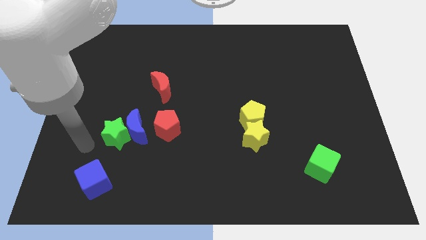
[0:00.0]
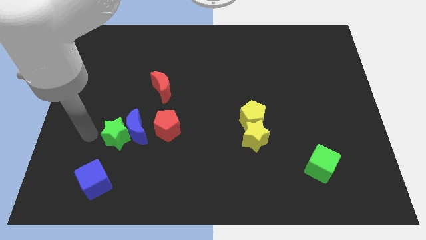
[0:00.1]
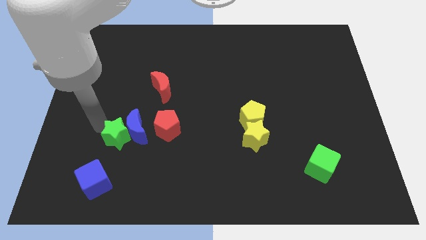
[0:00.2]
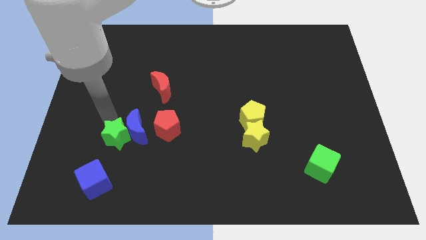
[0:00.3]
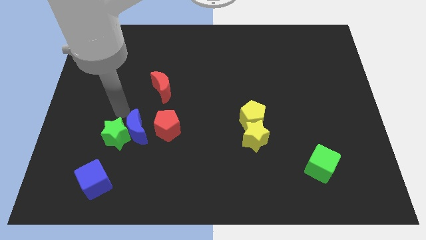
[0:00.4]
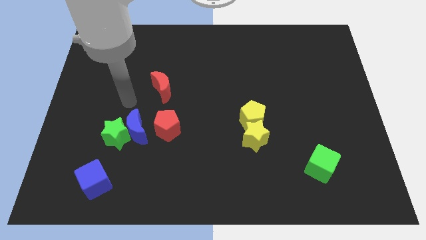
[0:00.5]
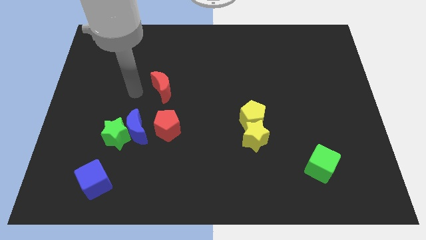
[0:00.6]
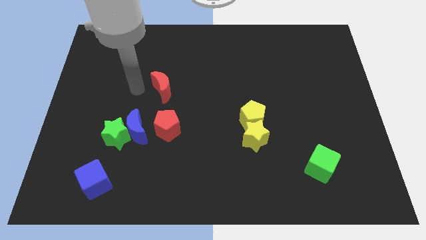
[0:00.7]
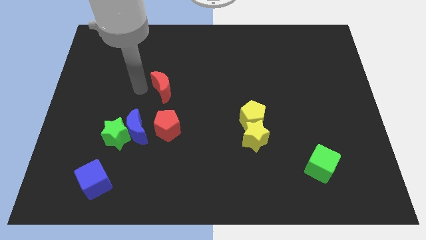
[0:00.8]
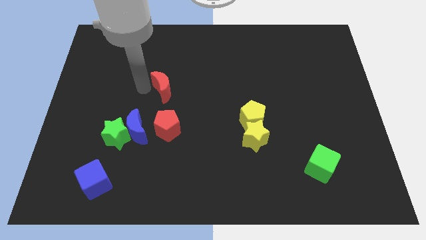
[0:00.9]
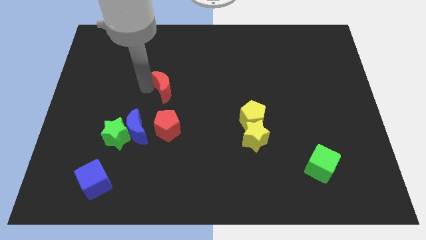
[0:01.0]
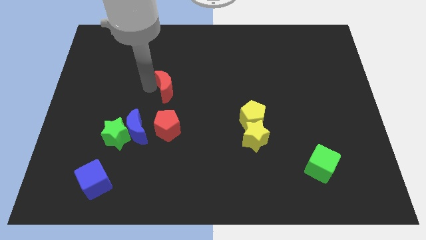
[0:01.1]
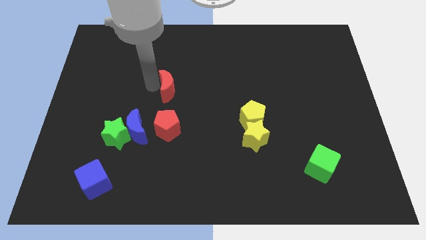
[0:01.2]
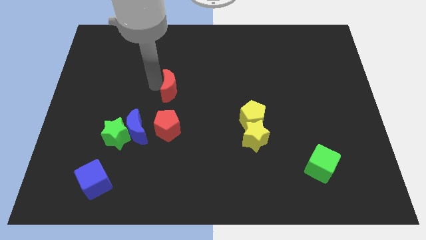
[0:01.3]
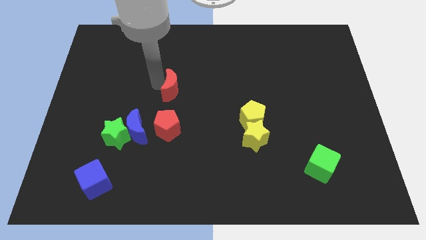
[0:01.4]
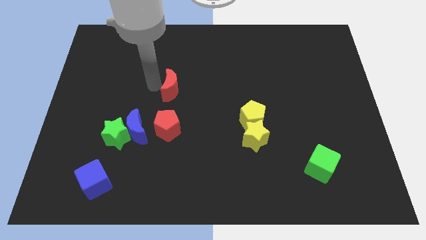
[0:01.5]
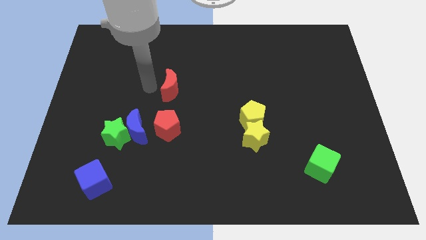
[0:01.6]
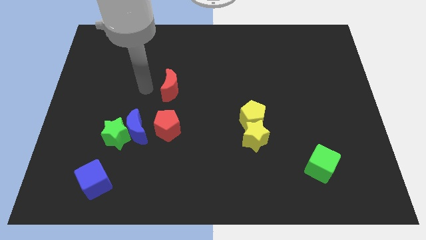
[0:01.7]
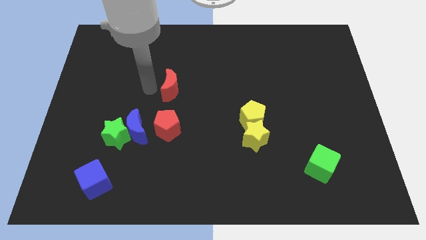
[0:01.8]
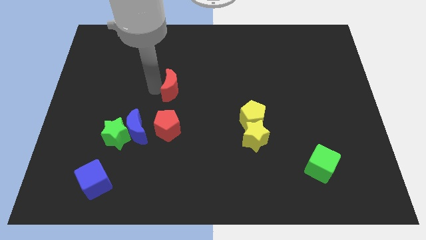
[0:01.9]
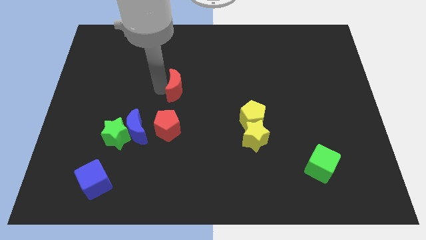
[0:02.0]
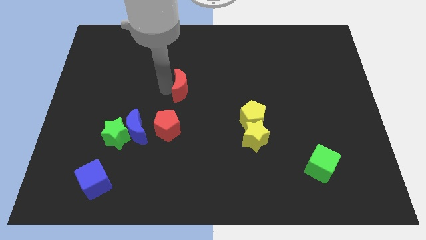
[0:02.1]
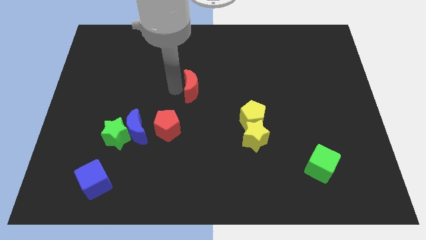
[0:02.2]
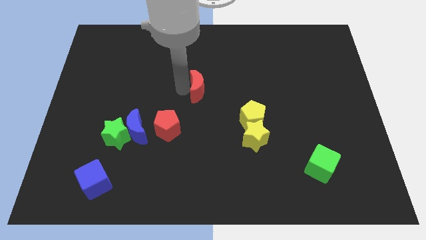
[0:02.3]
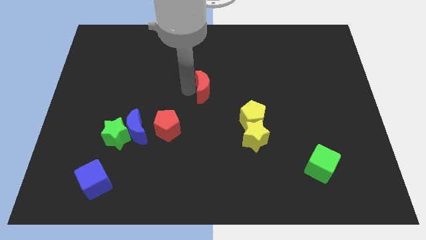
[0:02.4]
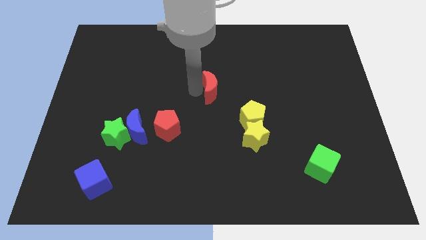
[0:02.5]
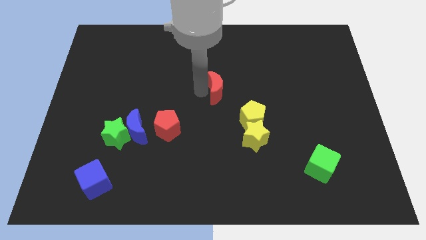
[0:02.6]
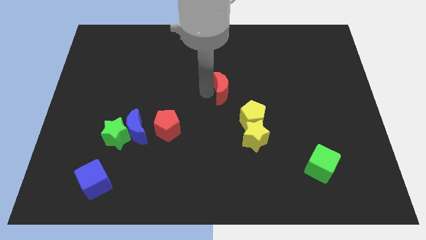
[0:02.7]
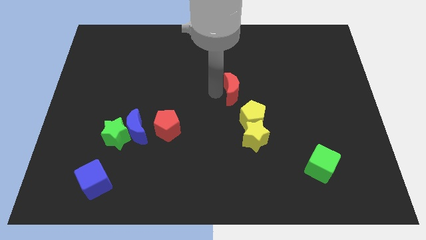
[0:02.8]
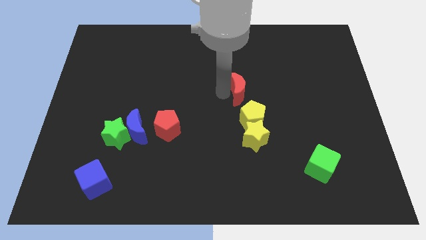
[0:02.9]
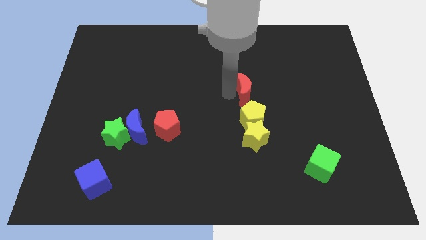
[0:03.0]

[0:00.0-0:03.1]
move the red moon right

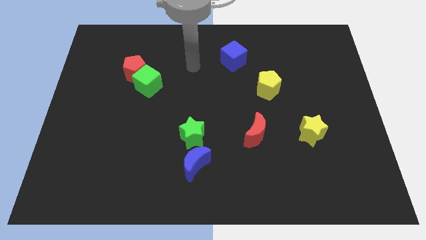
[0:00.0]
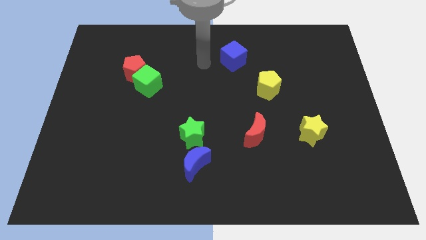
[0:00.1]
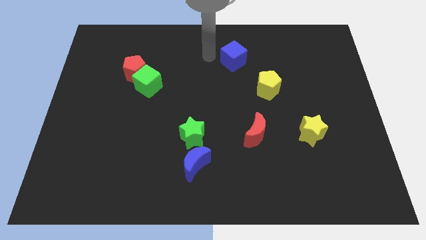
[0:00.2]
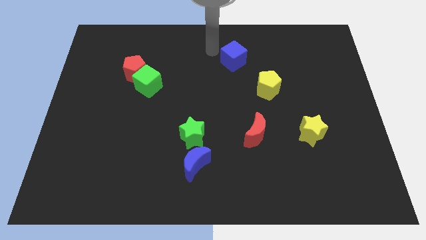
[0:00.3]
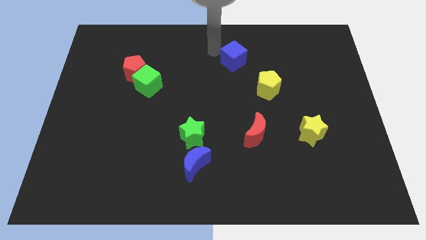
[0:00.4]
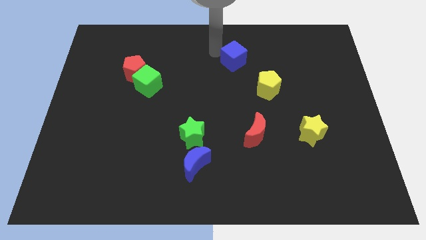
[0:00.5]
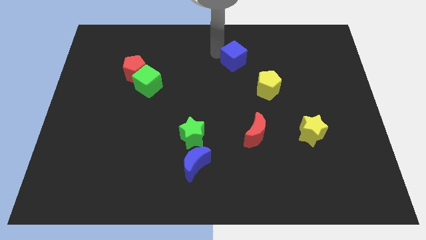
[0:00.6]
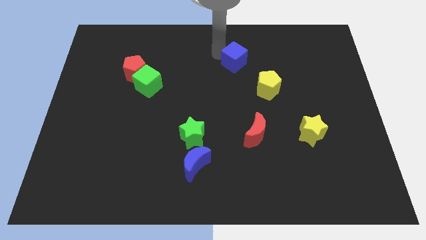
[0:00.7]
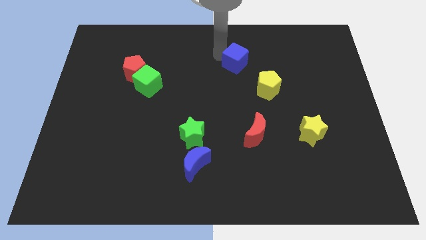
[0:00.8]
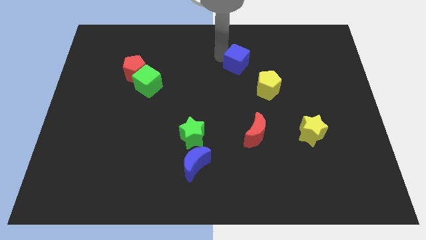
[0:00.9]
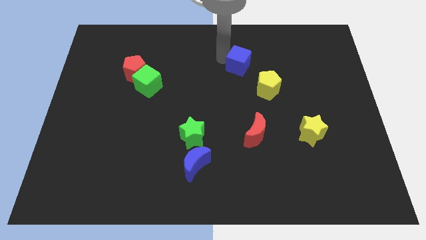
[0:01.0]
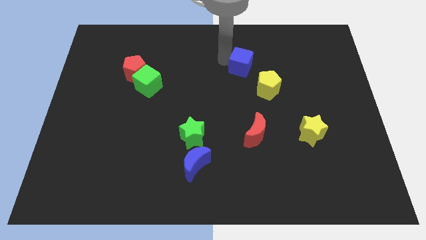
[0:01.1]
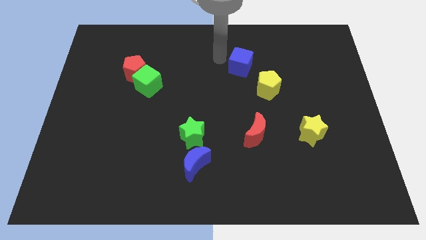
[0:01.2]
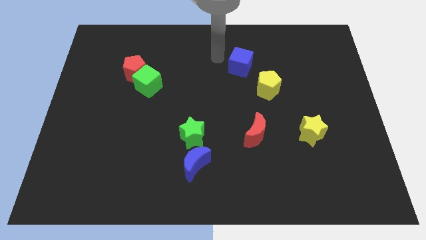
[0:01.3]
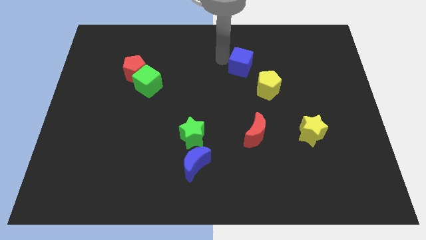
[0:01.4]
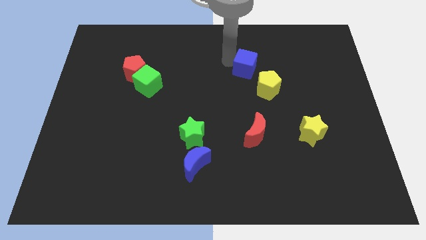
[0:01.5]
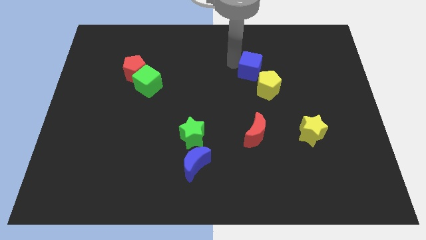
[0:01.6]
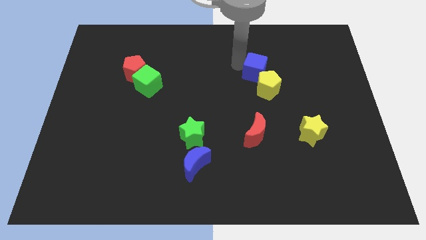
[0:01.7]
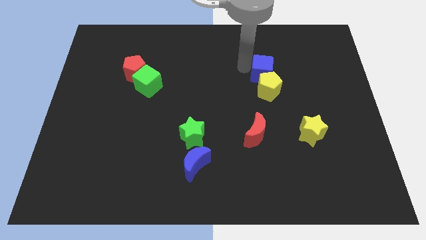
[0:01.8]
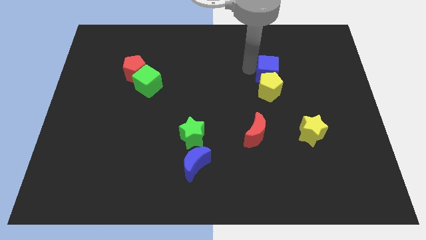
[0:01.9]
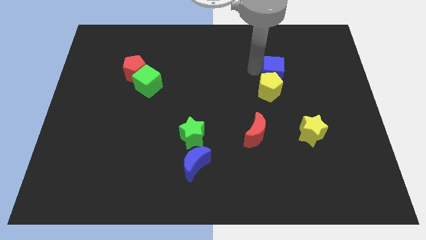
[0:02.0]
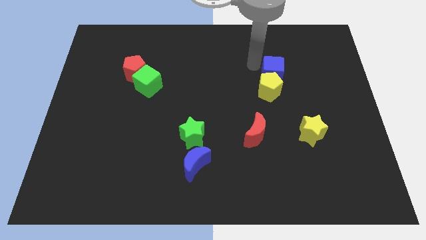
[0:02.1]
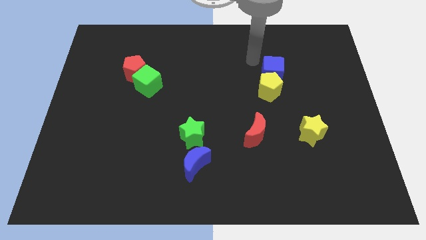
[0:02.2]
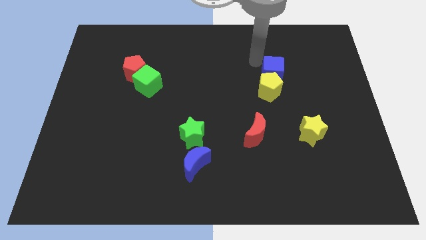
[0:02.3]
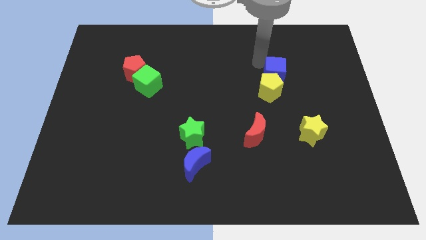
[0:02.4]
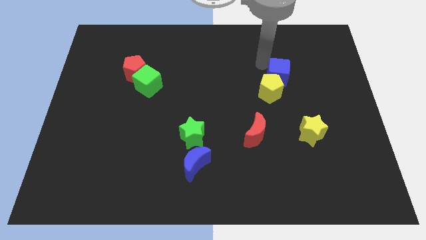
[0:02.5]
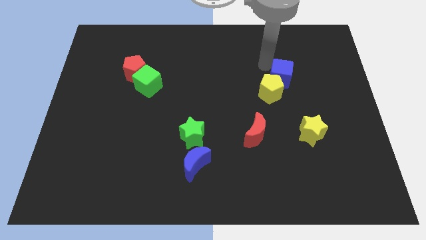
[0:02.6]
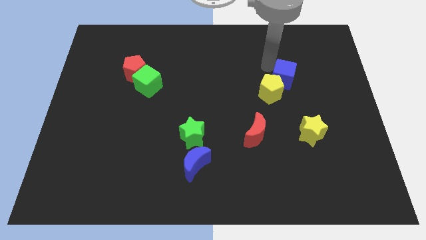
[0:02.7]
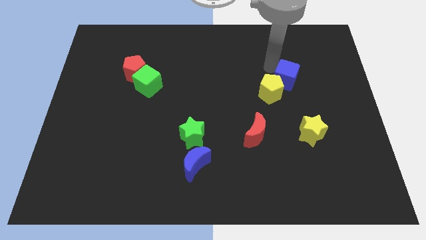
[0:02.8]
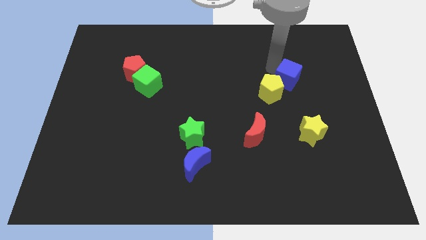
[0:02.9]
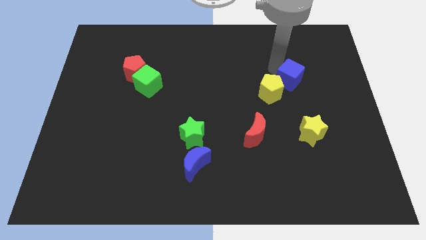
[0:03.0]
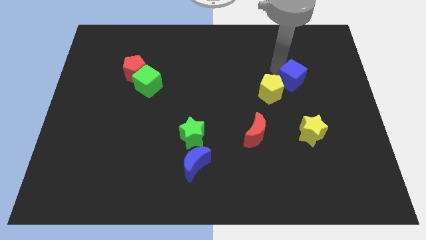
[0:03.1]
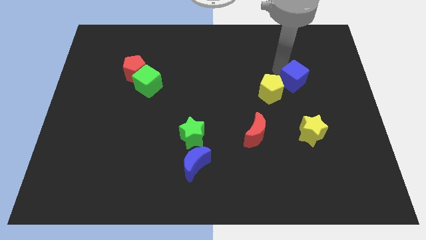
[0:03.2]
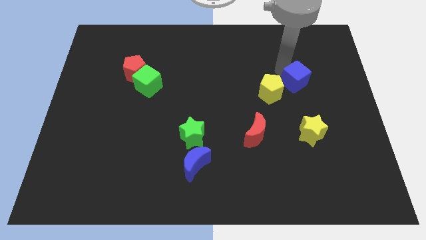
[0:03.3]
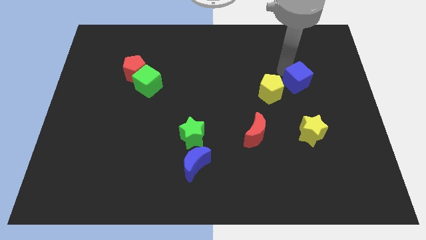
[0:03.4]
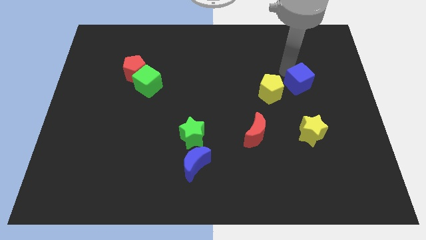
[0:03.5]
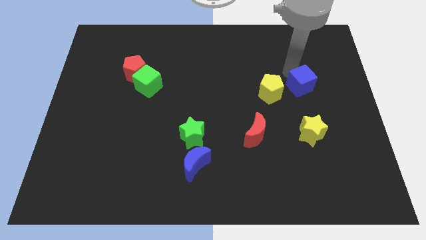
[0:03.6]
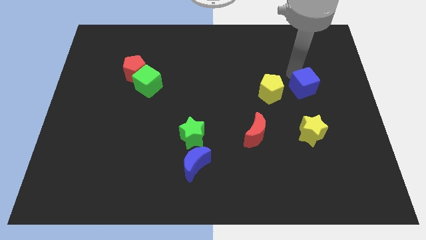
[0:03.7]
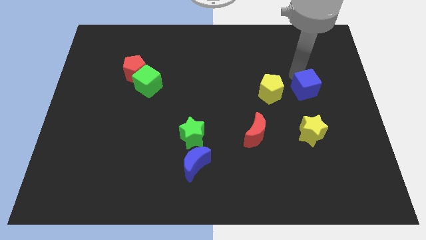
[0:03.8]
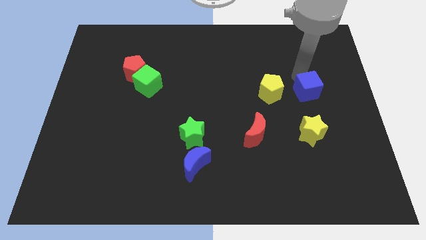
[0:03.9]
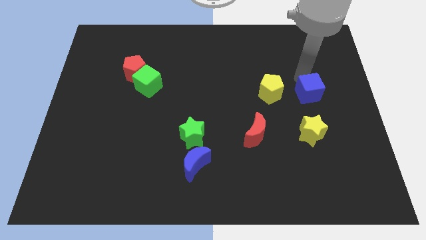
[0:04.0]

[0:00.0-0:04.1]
move the blue cube down and to the right diagonally

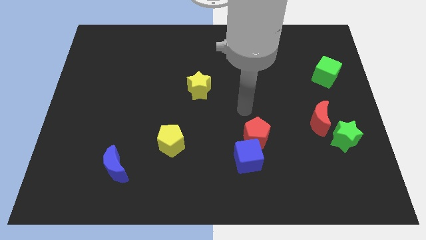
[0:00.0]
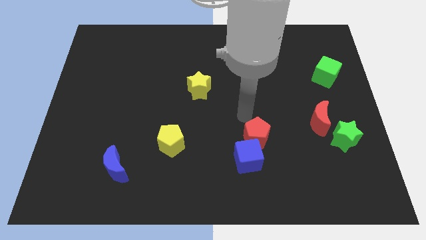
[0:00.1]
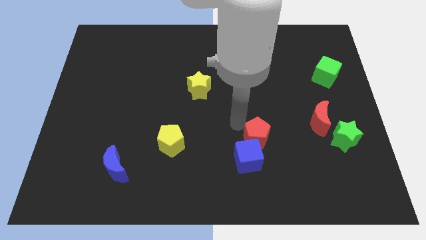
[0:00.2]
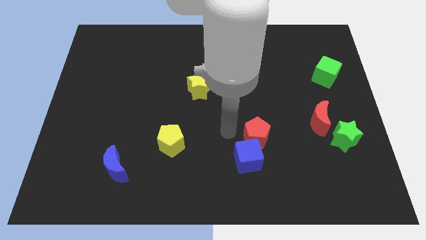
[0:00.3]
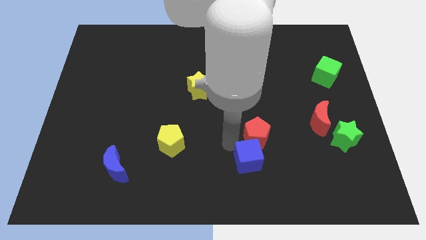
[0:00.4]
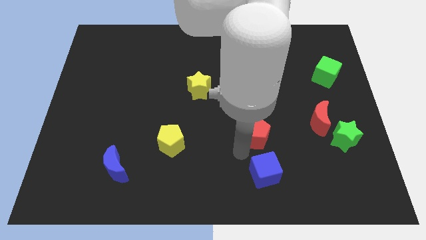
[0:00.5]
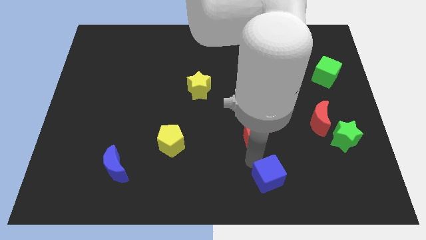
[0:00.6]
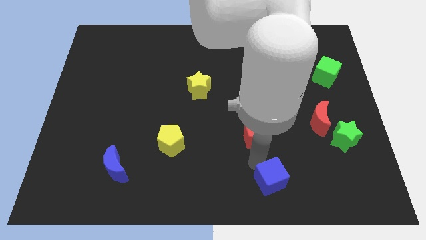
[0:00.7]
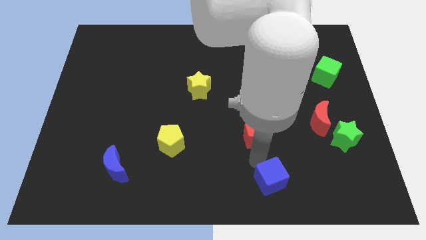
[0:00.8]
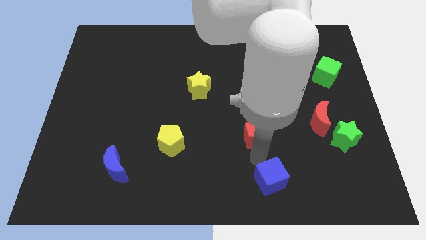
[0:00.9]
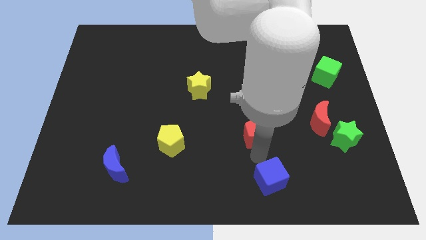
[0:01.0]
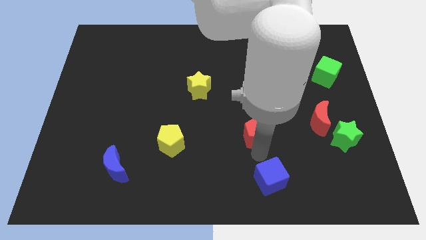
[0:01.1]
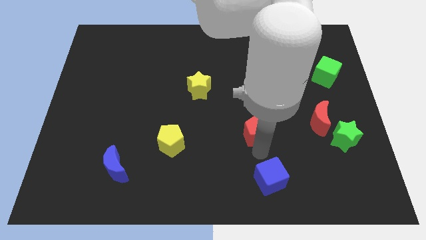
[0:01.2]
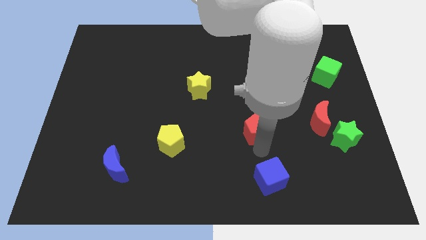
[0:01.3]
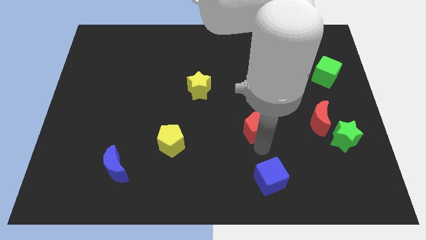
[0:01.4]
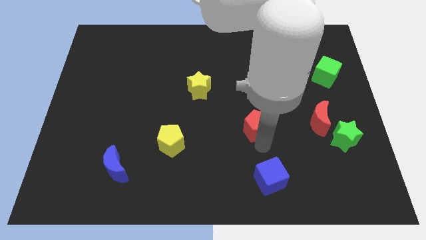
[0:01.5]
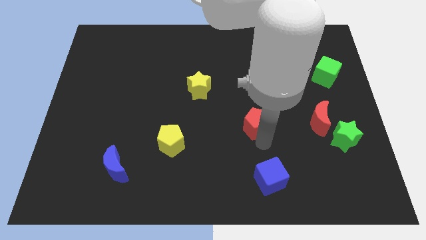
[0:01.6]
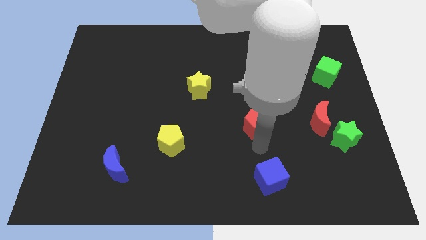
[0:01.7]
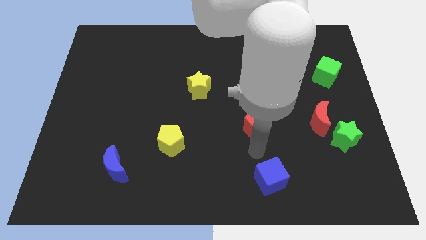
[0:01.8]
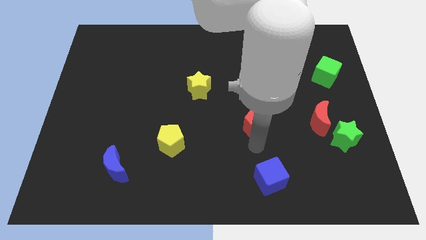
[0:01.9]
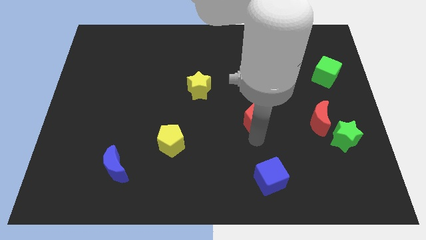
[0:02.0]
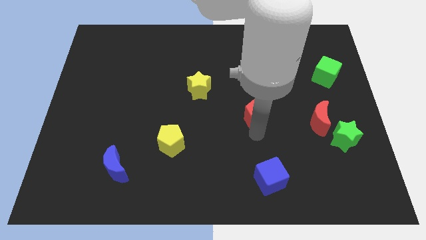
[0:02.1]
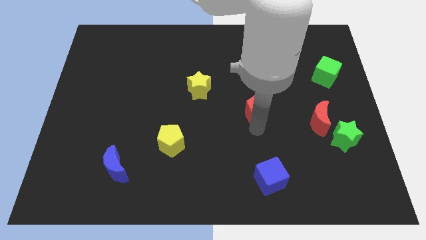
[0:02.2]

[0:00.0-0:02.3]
slide the red pentagon a little bit upwards
